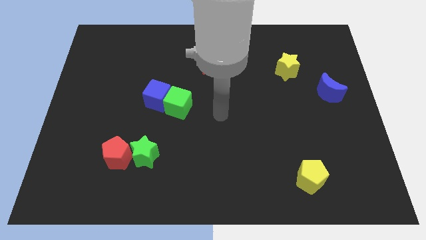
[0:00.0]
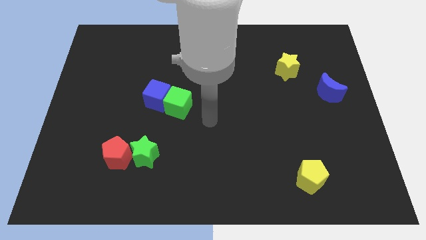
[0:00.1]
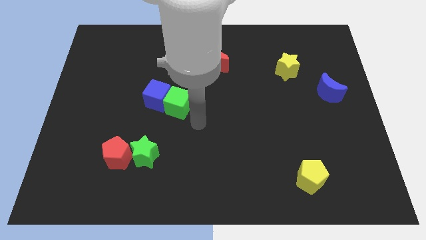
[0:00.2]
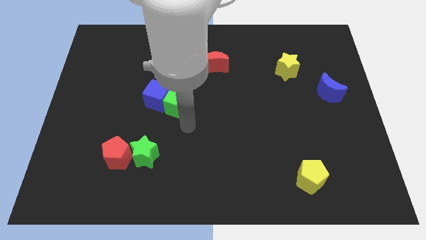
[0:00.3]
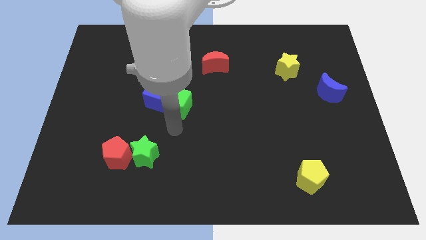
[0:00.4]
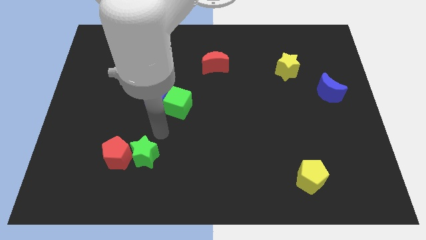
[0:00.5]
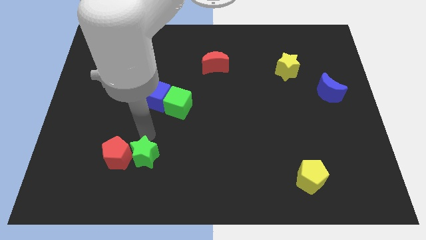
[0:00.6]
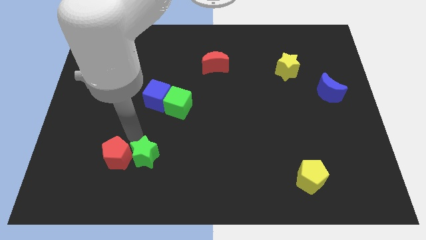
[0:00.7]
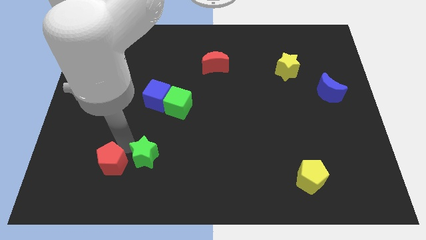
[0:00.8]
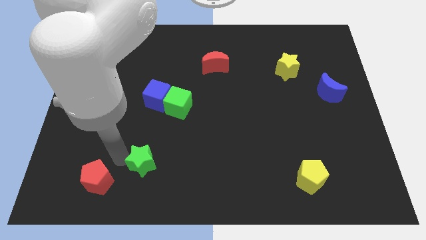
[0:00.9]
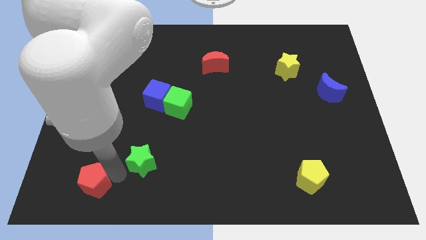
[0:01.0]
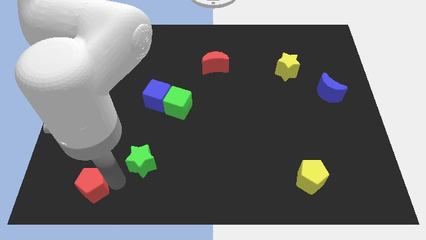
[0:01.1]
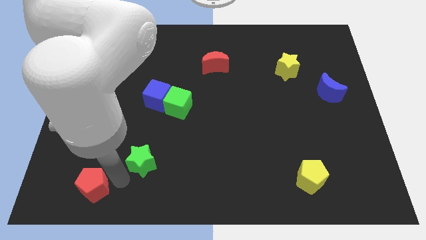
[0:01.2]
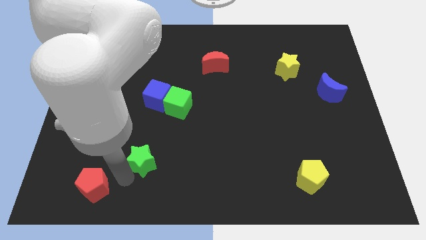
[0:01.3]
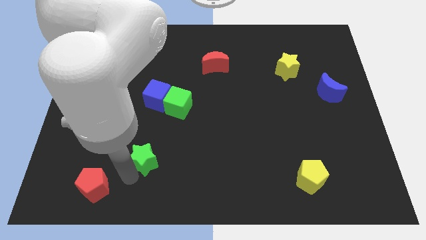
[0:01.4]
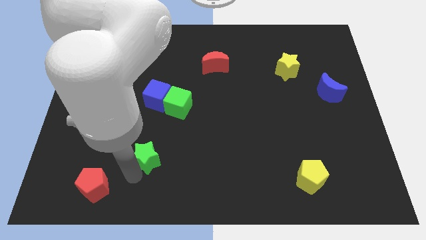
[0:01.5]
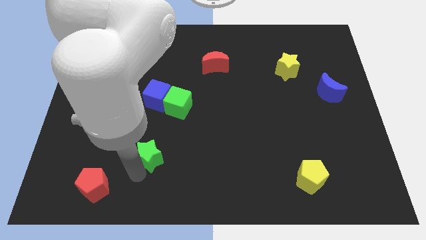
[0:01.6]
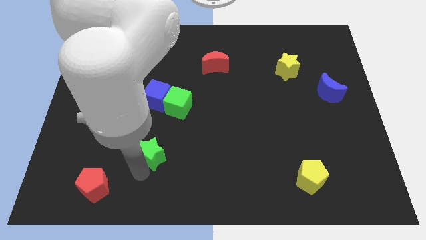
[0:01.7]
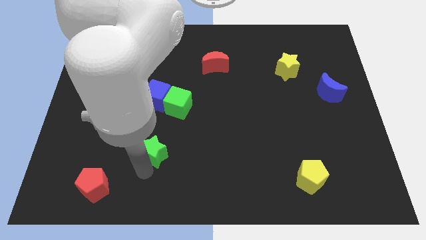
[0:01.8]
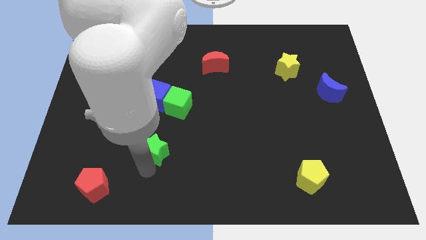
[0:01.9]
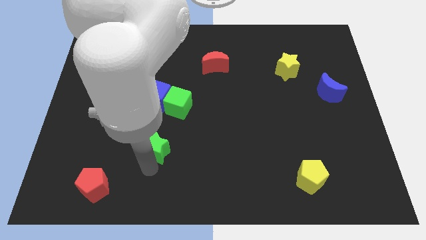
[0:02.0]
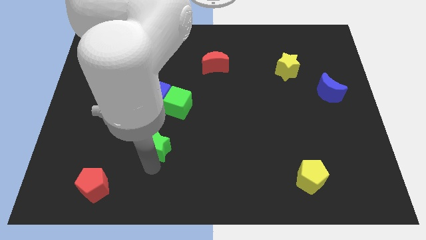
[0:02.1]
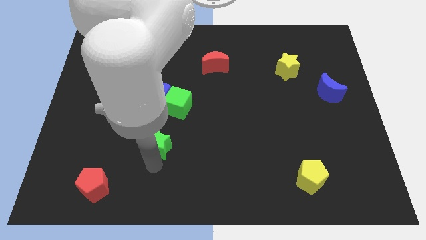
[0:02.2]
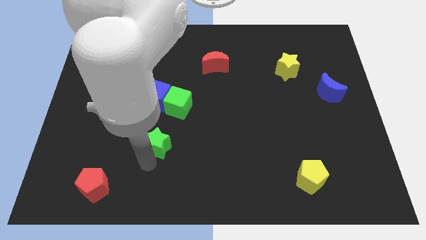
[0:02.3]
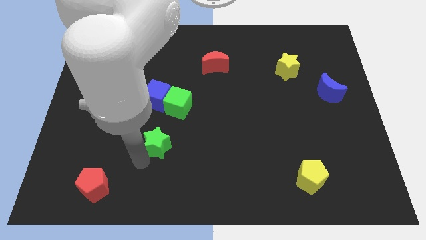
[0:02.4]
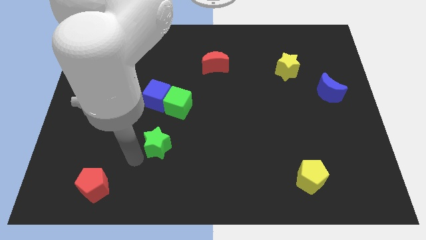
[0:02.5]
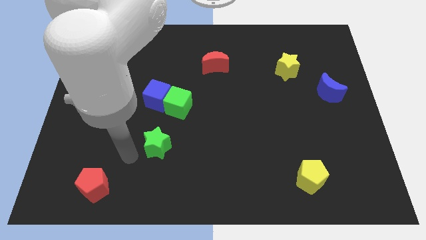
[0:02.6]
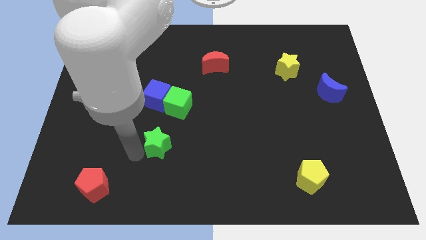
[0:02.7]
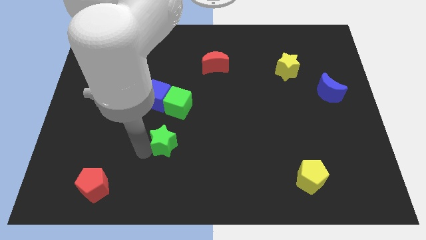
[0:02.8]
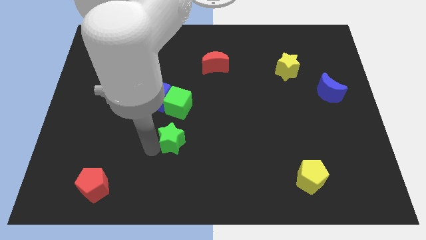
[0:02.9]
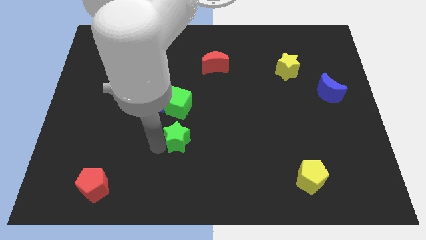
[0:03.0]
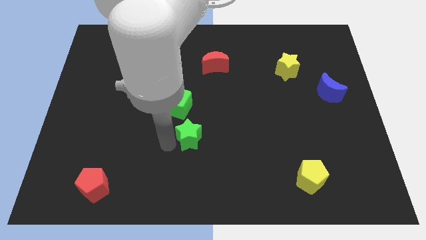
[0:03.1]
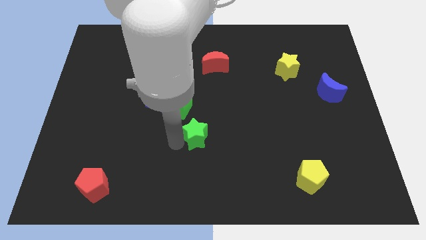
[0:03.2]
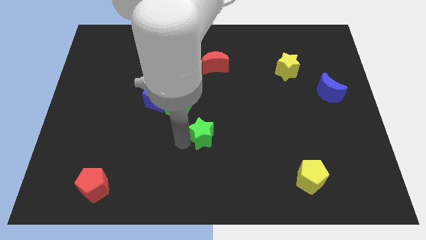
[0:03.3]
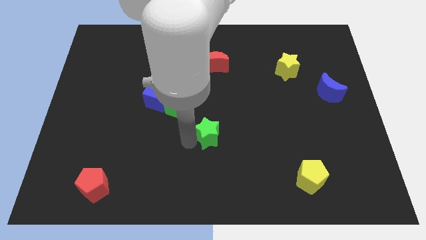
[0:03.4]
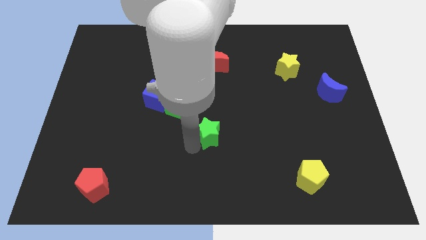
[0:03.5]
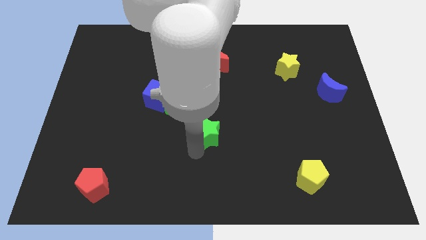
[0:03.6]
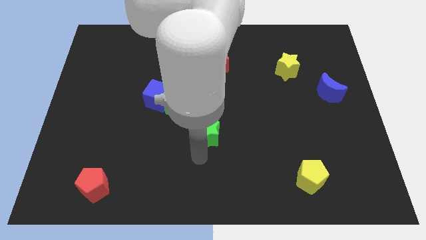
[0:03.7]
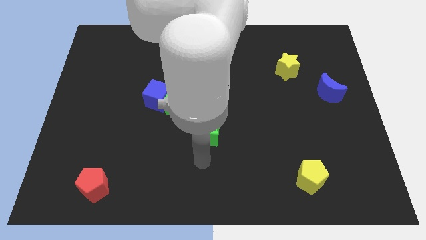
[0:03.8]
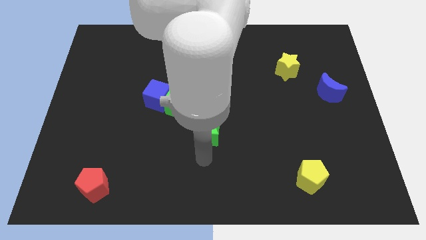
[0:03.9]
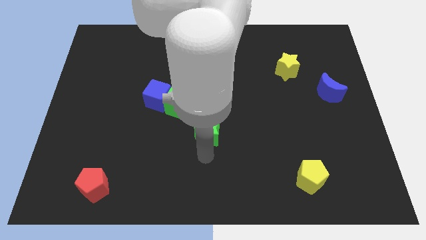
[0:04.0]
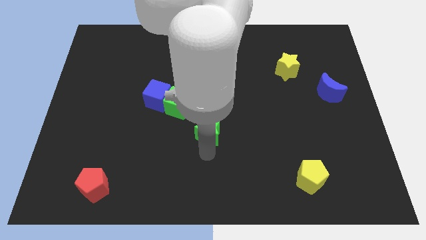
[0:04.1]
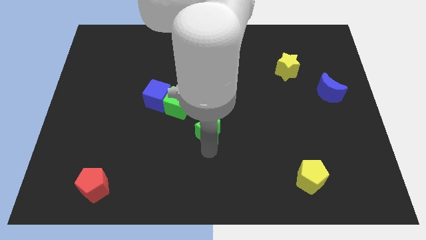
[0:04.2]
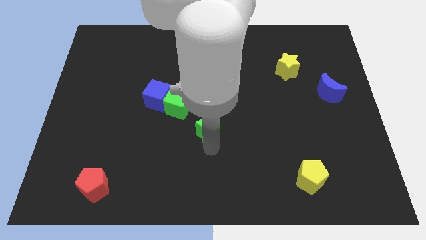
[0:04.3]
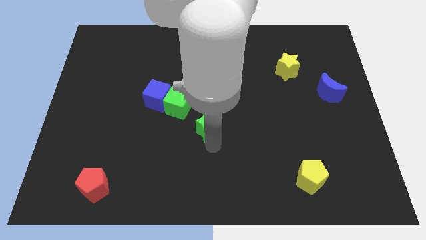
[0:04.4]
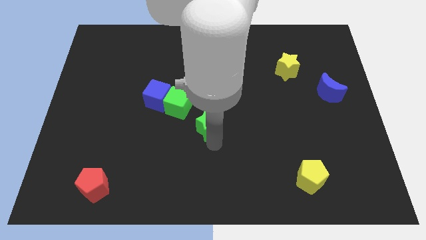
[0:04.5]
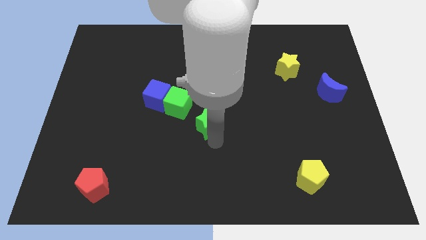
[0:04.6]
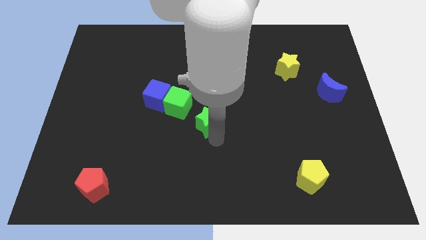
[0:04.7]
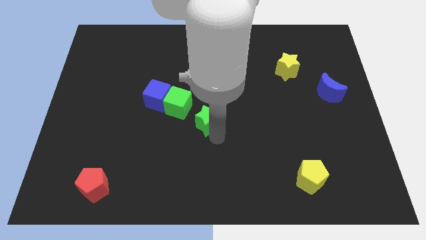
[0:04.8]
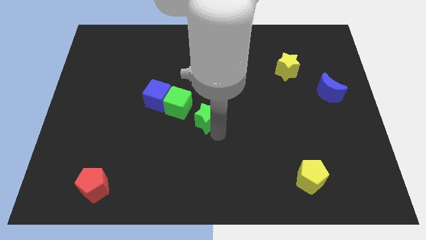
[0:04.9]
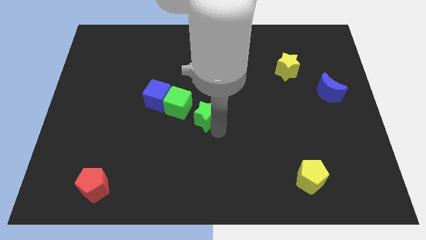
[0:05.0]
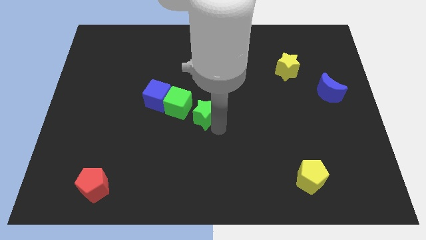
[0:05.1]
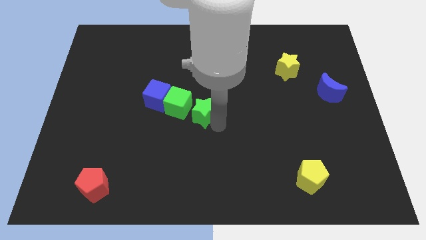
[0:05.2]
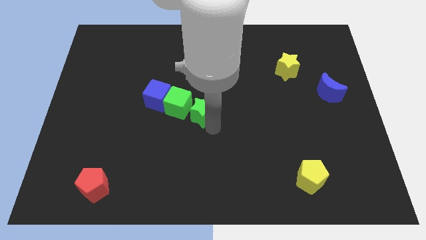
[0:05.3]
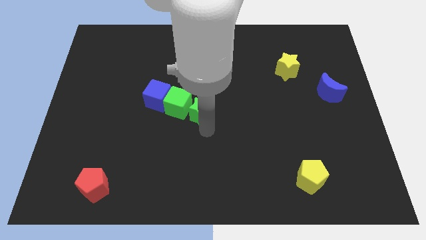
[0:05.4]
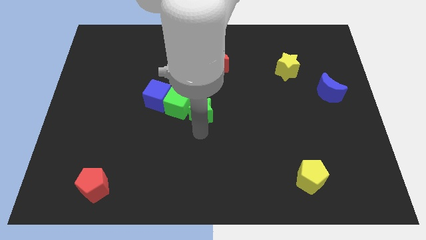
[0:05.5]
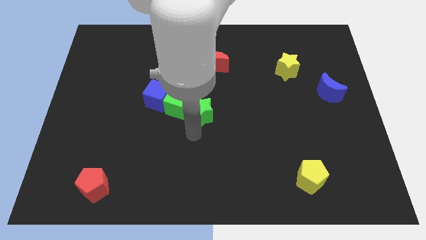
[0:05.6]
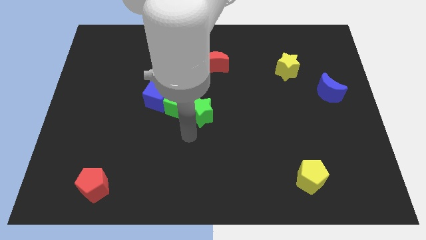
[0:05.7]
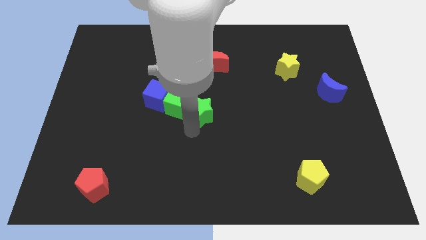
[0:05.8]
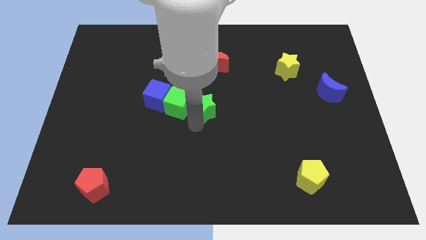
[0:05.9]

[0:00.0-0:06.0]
put the green star to the bottom of the red moon

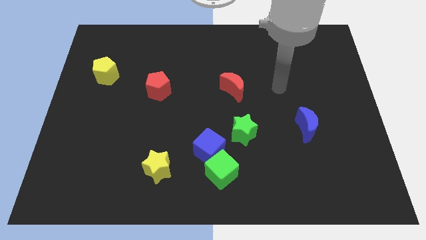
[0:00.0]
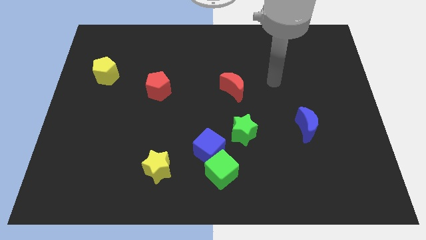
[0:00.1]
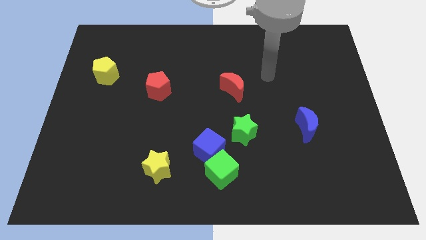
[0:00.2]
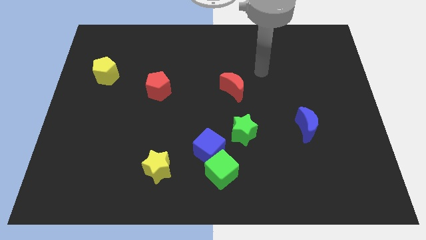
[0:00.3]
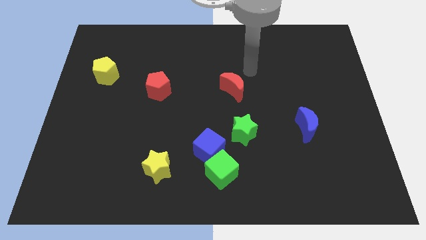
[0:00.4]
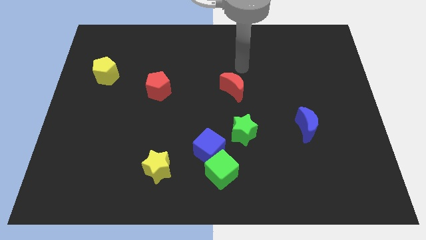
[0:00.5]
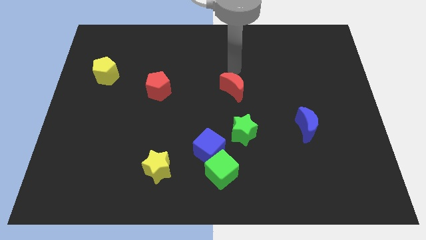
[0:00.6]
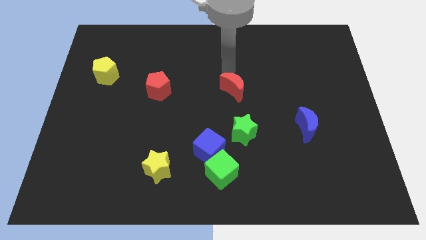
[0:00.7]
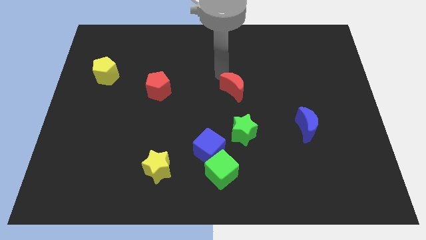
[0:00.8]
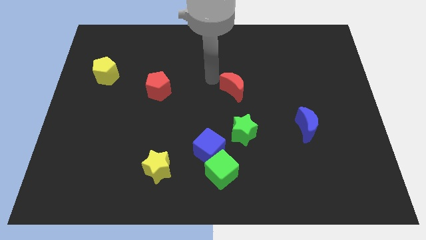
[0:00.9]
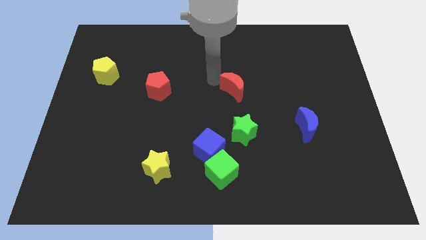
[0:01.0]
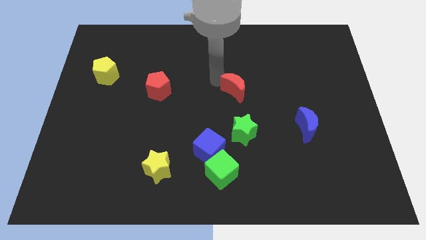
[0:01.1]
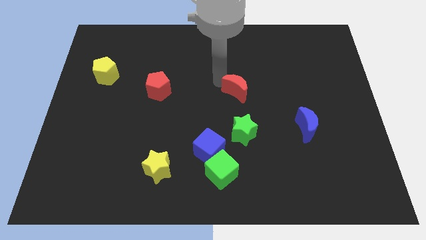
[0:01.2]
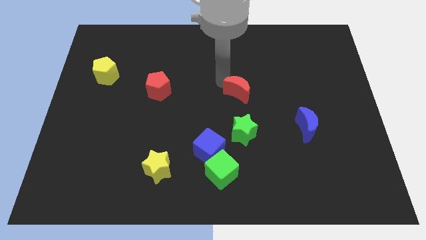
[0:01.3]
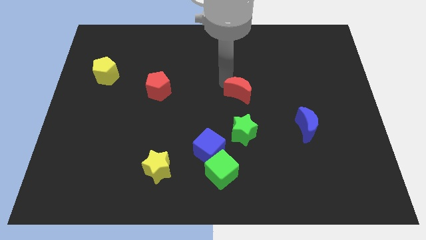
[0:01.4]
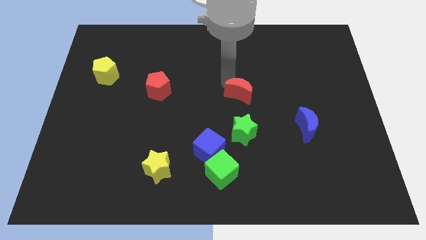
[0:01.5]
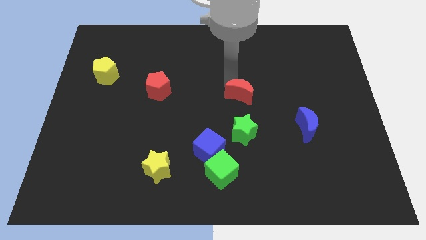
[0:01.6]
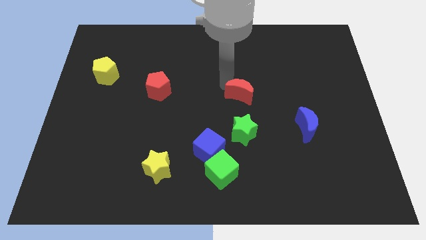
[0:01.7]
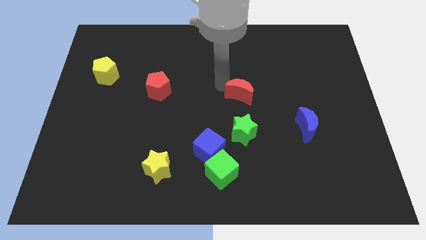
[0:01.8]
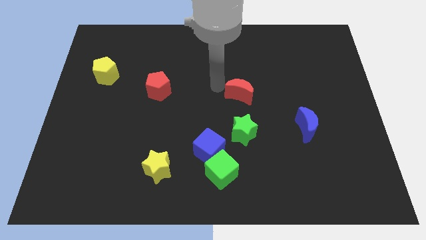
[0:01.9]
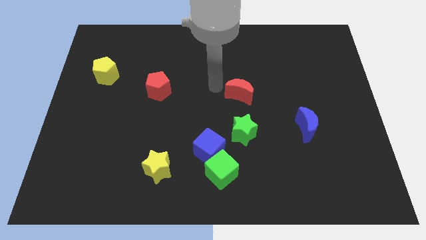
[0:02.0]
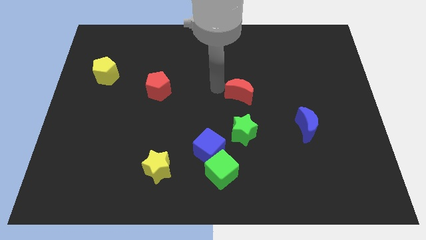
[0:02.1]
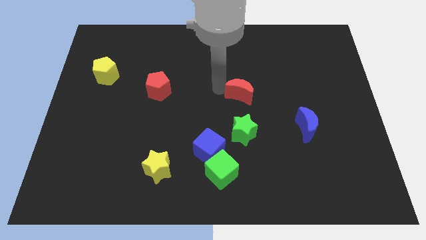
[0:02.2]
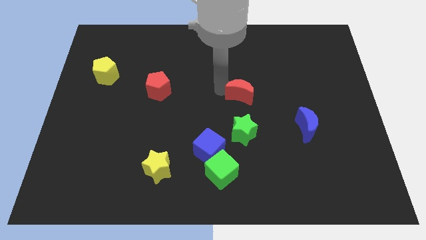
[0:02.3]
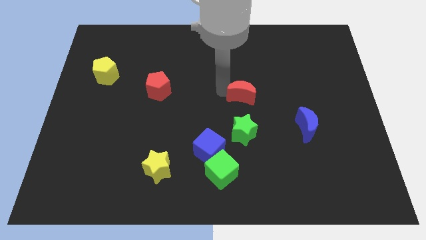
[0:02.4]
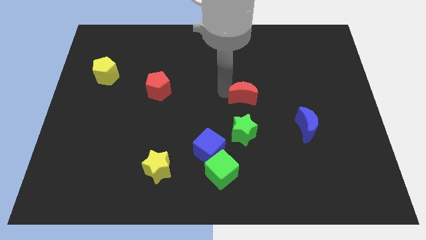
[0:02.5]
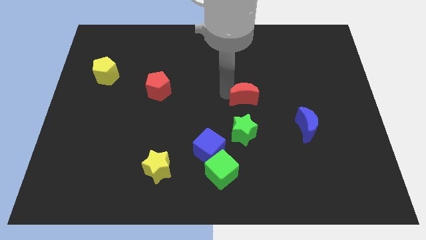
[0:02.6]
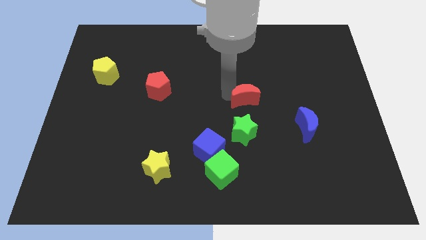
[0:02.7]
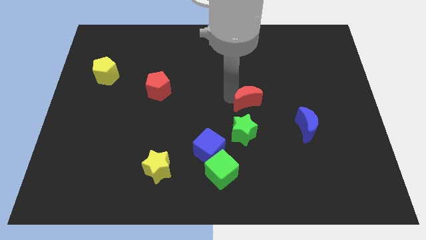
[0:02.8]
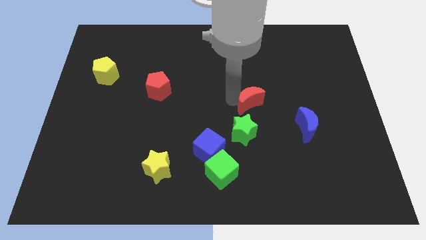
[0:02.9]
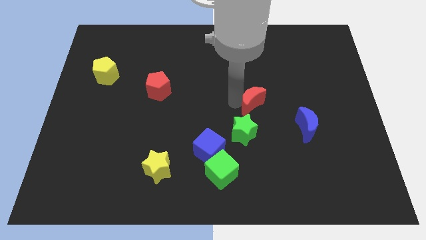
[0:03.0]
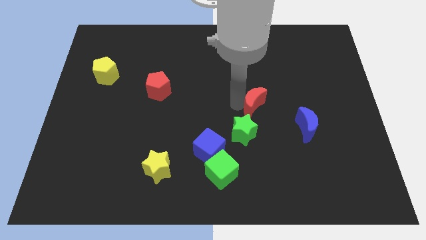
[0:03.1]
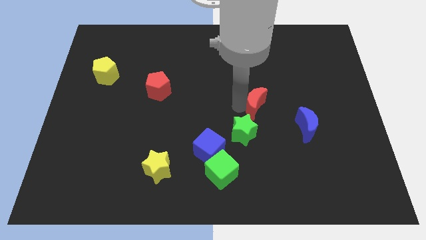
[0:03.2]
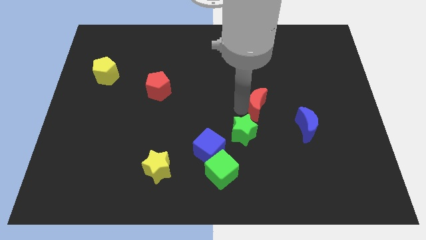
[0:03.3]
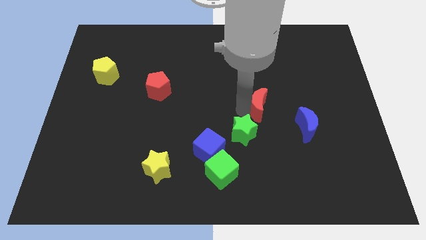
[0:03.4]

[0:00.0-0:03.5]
move the red moon to the top left side of the blue moon
